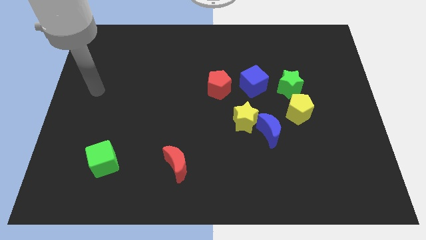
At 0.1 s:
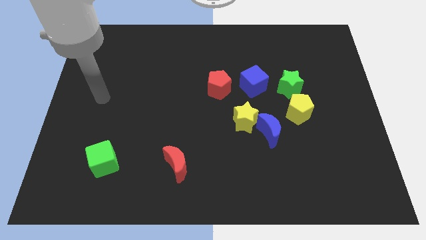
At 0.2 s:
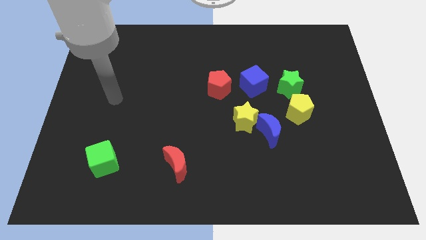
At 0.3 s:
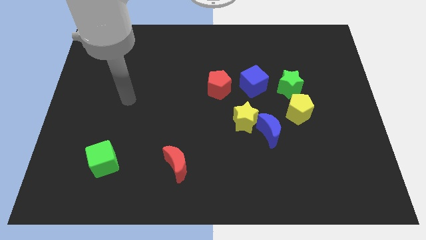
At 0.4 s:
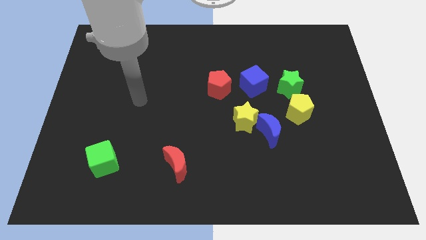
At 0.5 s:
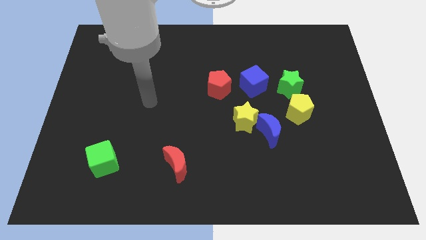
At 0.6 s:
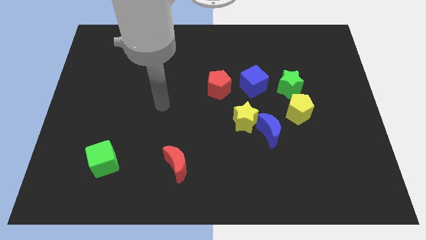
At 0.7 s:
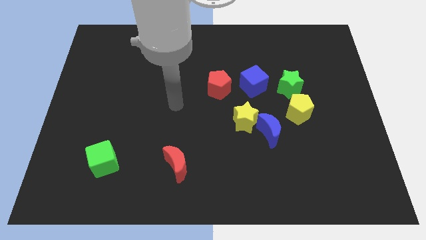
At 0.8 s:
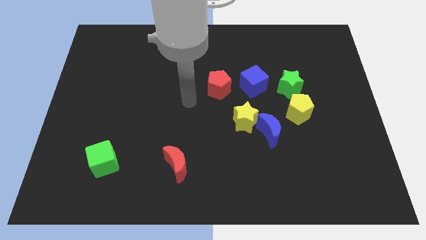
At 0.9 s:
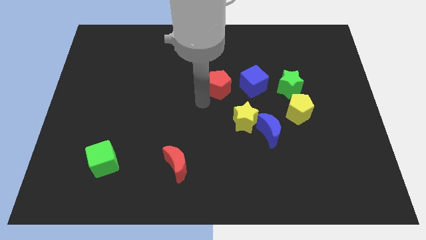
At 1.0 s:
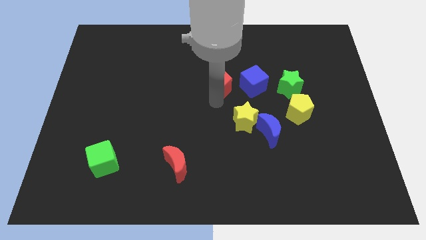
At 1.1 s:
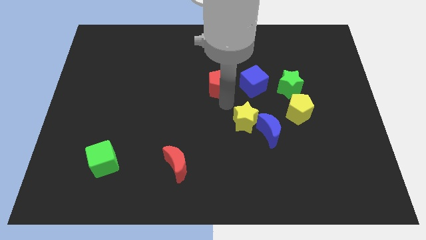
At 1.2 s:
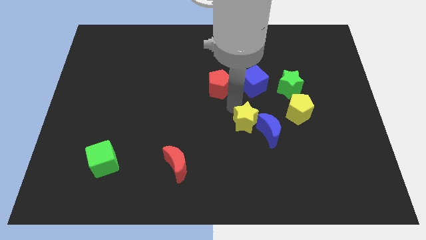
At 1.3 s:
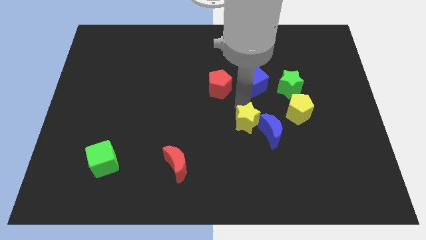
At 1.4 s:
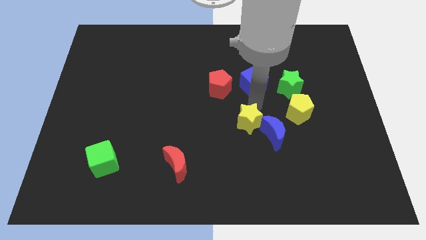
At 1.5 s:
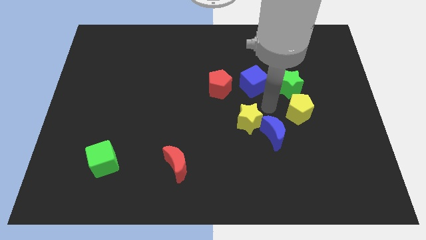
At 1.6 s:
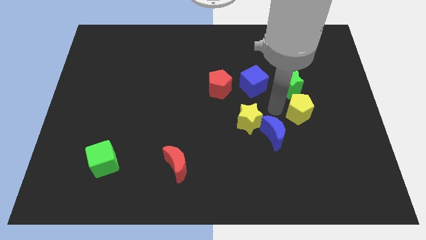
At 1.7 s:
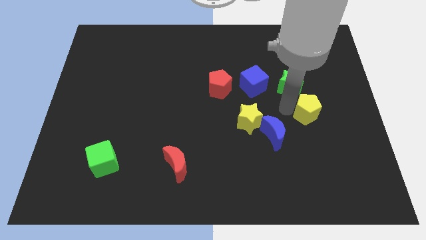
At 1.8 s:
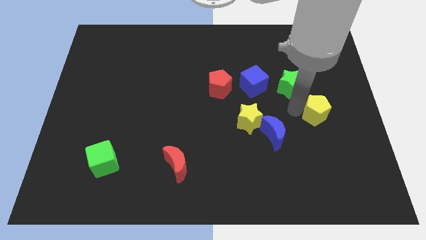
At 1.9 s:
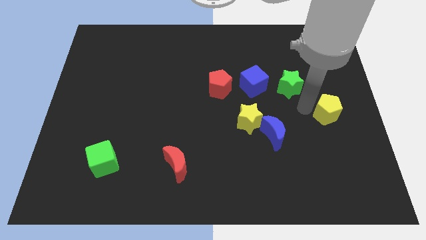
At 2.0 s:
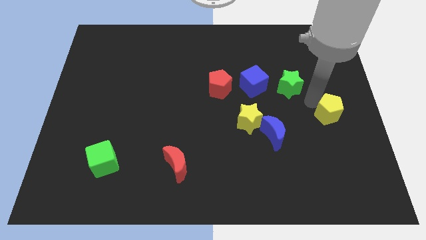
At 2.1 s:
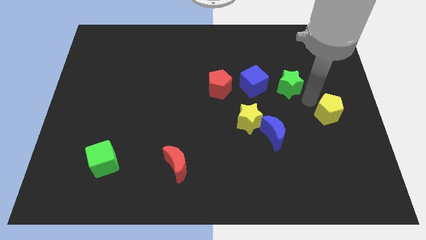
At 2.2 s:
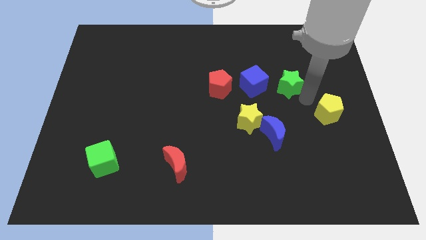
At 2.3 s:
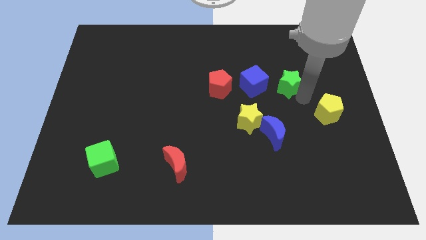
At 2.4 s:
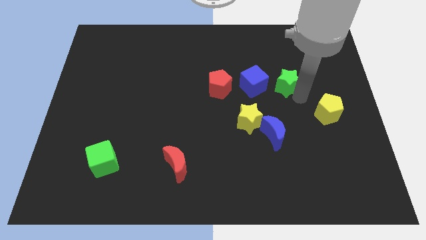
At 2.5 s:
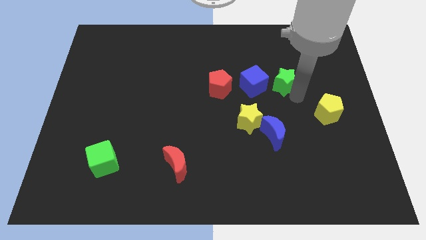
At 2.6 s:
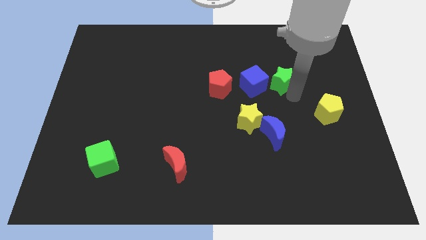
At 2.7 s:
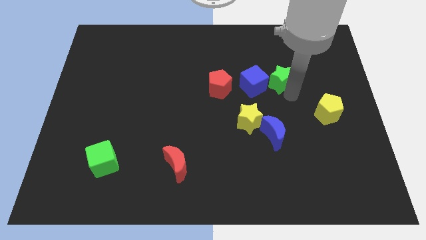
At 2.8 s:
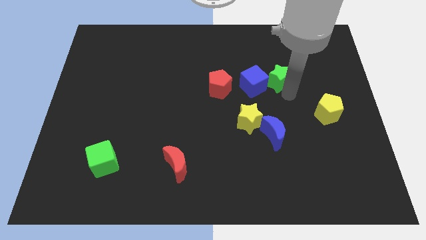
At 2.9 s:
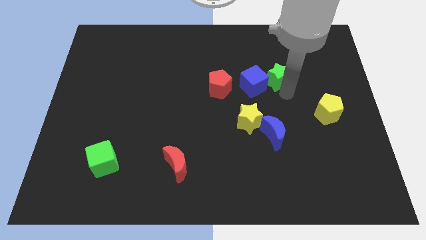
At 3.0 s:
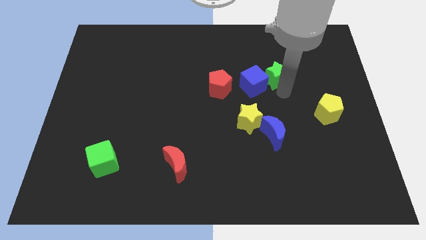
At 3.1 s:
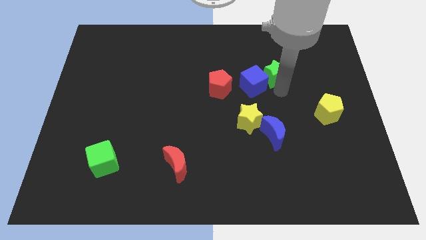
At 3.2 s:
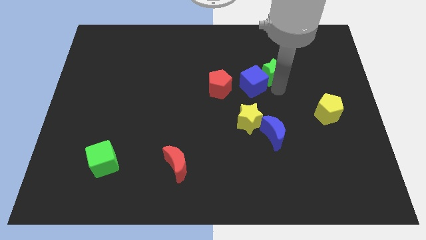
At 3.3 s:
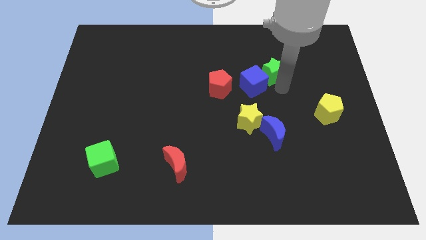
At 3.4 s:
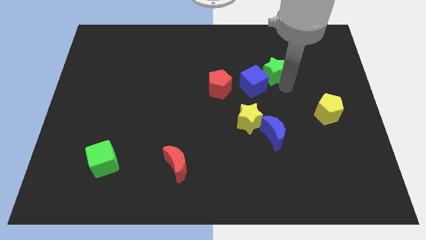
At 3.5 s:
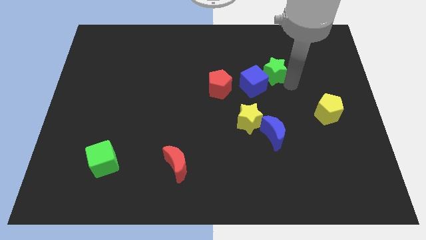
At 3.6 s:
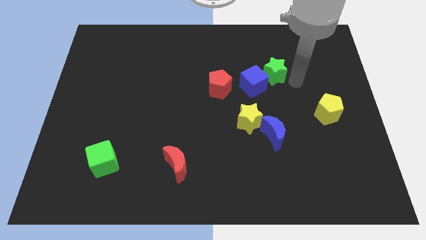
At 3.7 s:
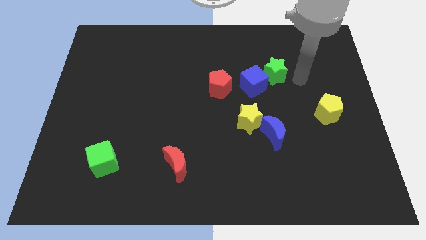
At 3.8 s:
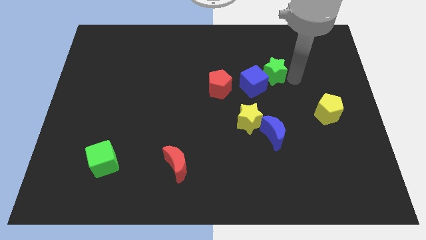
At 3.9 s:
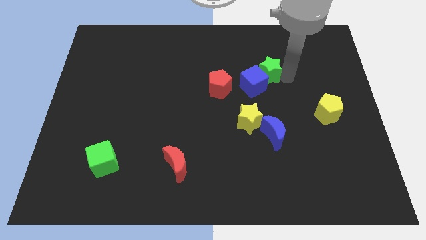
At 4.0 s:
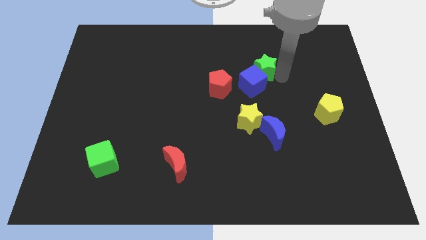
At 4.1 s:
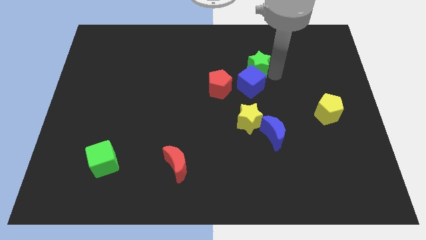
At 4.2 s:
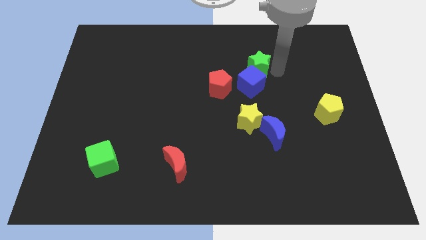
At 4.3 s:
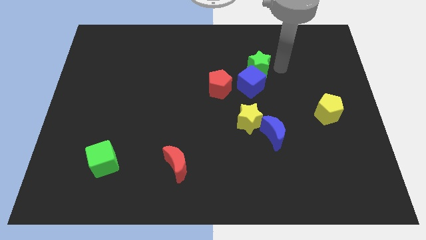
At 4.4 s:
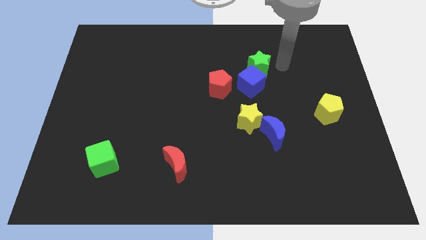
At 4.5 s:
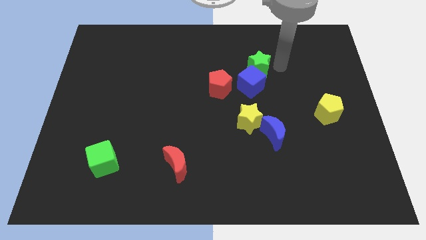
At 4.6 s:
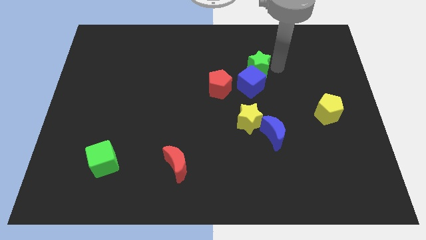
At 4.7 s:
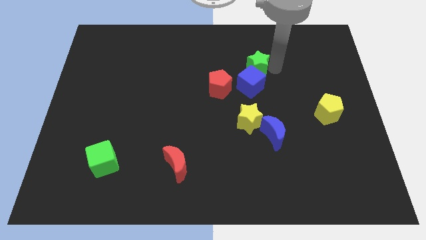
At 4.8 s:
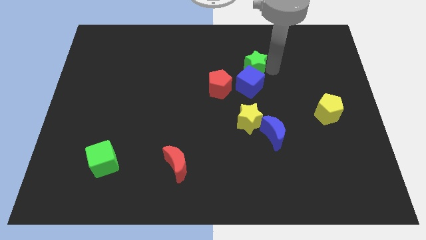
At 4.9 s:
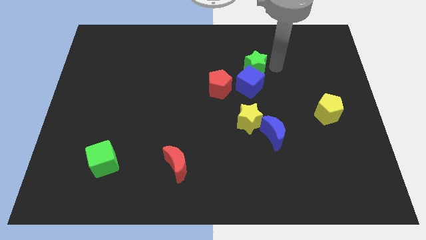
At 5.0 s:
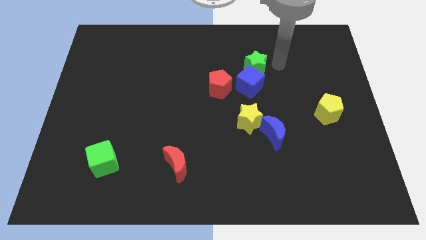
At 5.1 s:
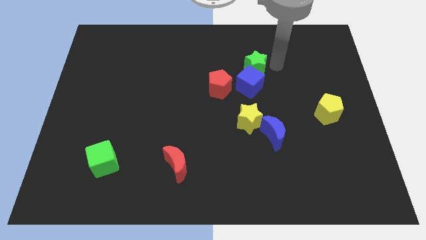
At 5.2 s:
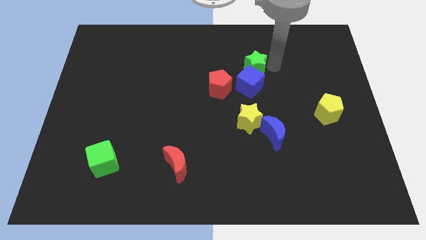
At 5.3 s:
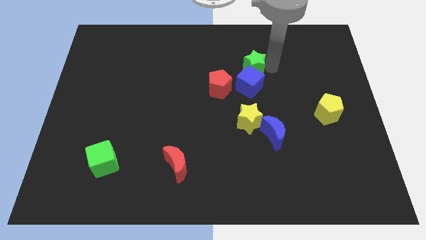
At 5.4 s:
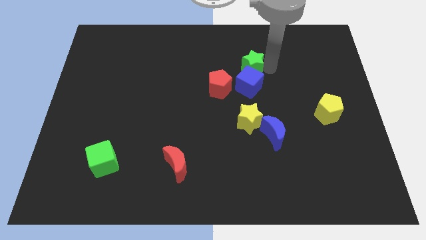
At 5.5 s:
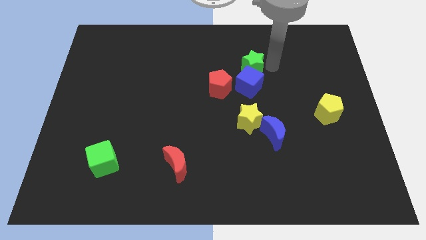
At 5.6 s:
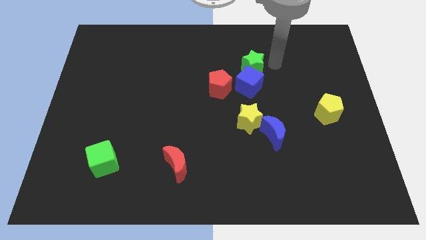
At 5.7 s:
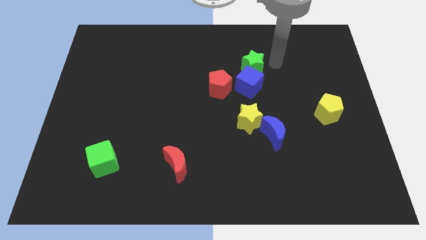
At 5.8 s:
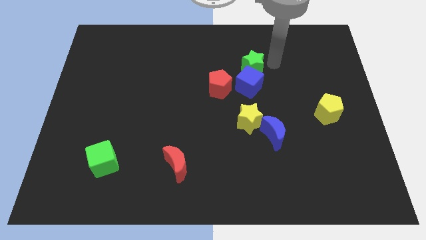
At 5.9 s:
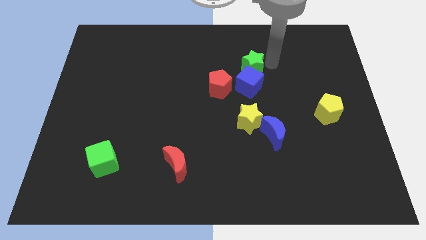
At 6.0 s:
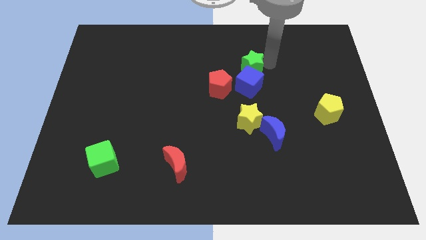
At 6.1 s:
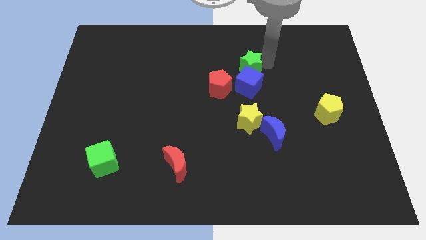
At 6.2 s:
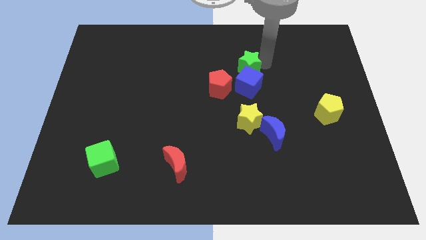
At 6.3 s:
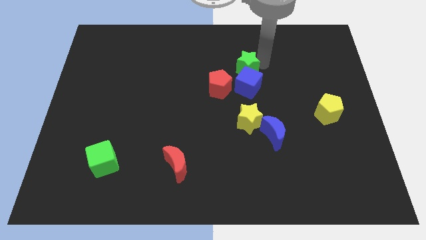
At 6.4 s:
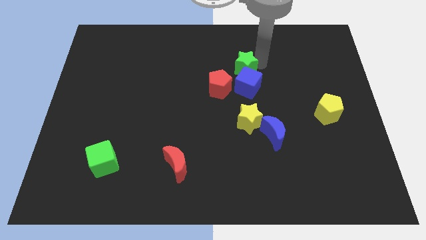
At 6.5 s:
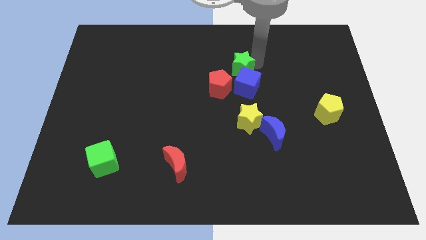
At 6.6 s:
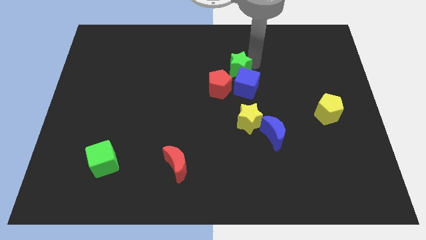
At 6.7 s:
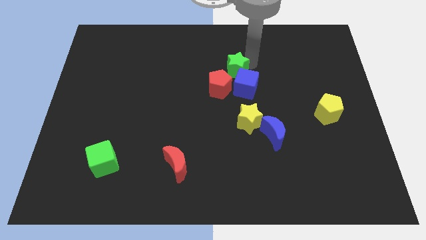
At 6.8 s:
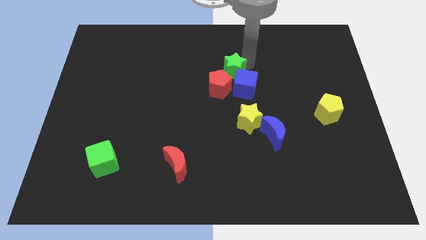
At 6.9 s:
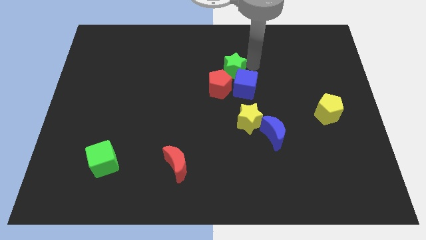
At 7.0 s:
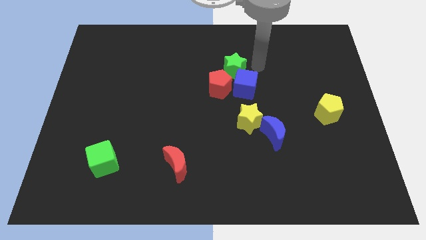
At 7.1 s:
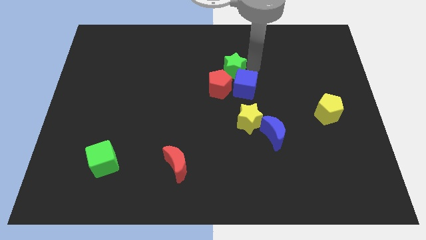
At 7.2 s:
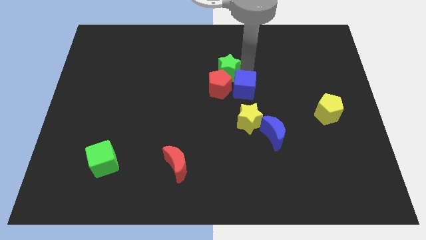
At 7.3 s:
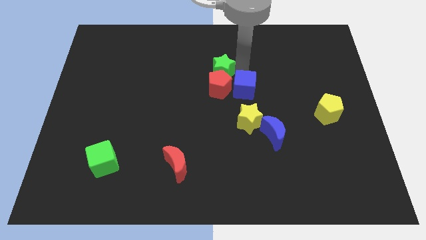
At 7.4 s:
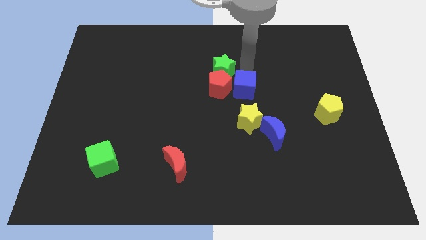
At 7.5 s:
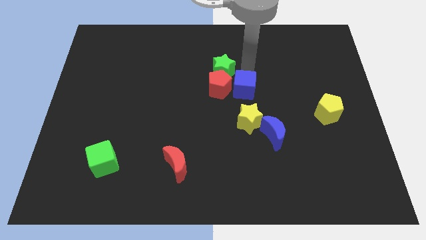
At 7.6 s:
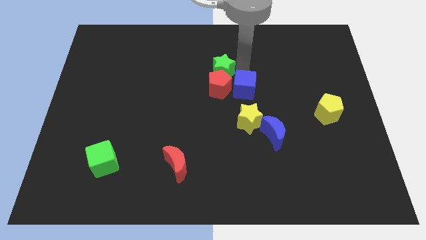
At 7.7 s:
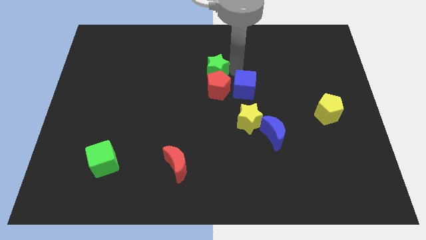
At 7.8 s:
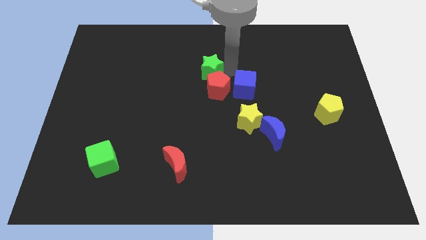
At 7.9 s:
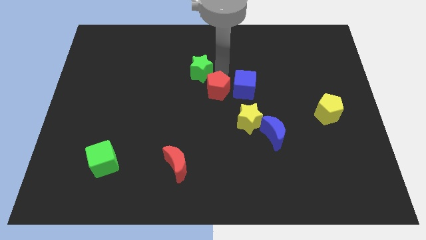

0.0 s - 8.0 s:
push the green star left
